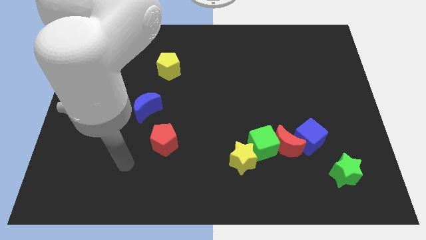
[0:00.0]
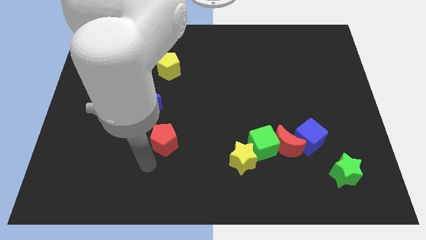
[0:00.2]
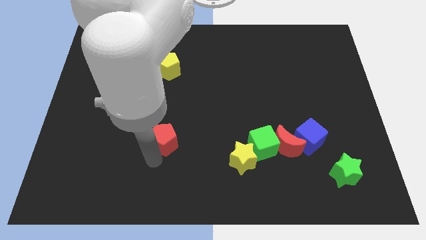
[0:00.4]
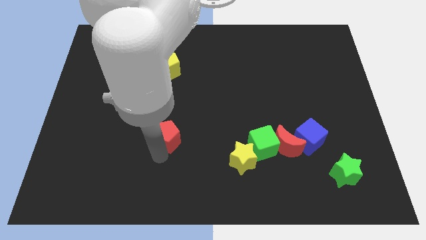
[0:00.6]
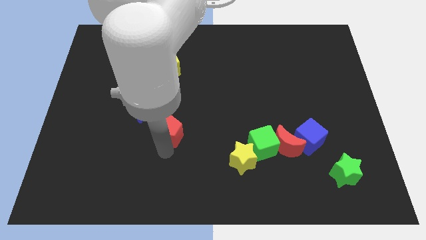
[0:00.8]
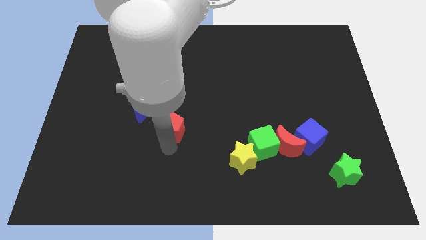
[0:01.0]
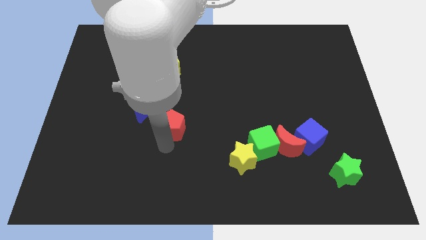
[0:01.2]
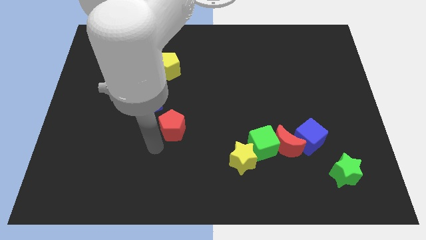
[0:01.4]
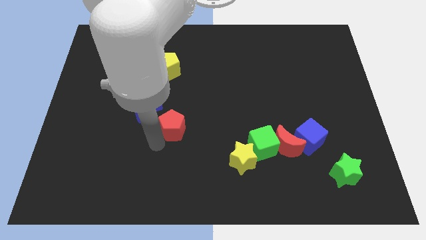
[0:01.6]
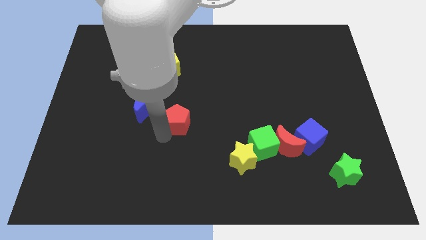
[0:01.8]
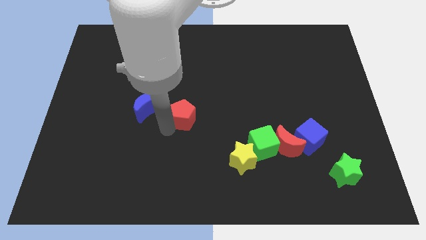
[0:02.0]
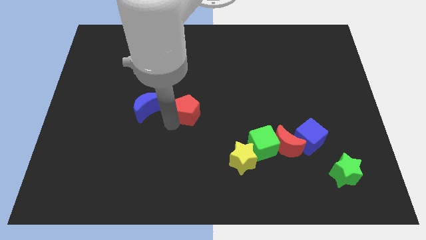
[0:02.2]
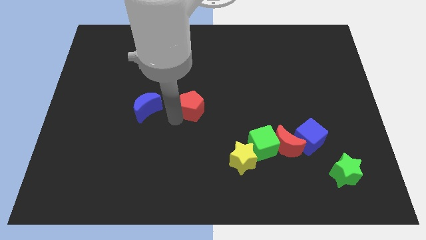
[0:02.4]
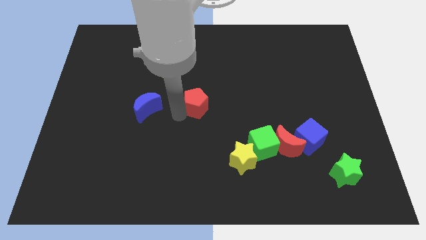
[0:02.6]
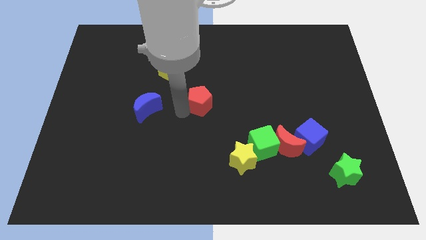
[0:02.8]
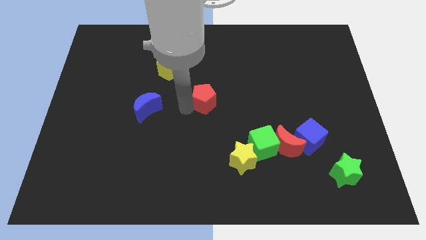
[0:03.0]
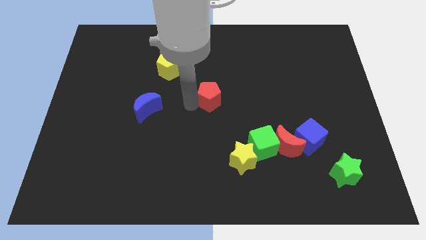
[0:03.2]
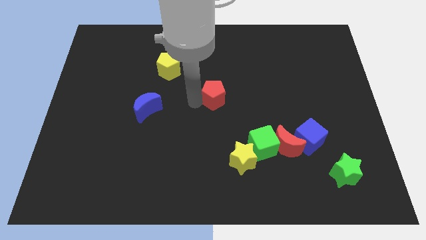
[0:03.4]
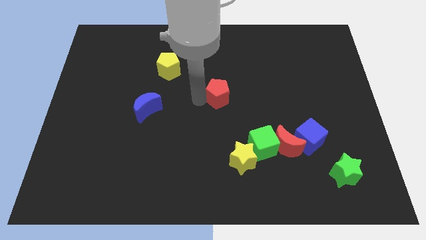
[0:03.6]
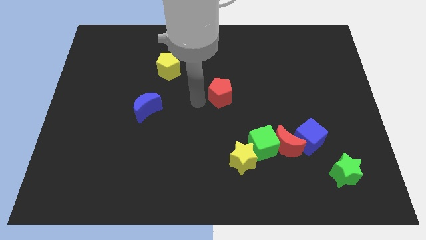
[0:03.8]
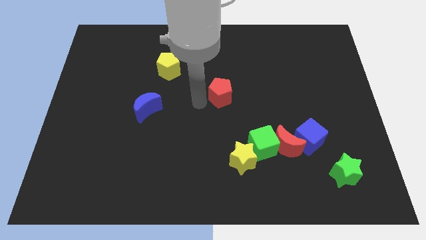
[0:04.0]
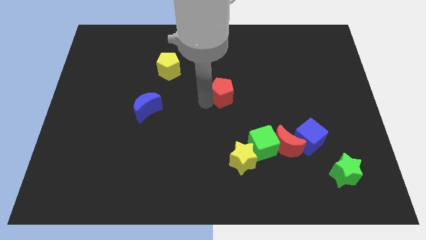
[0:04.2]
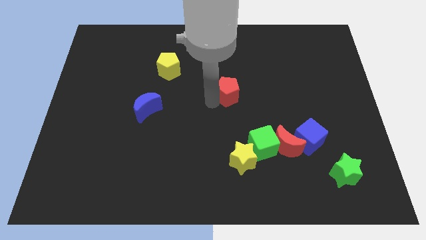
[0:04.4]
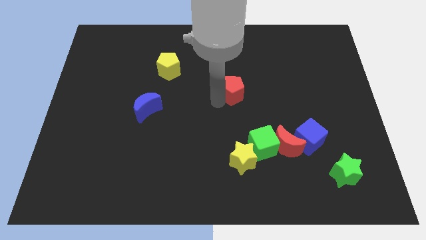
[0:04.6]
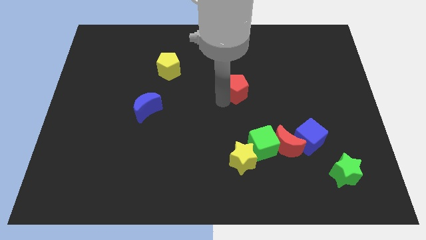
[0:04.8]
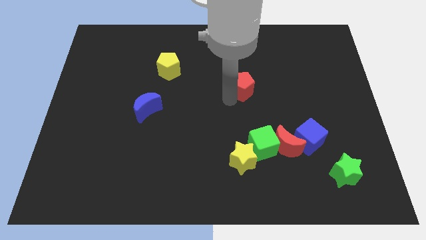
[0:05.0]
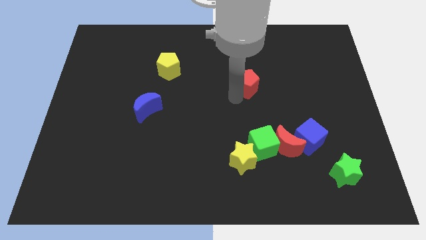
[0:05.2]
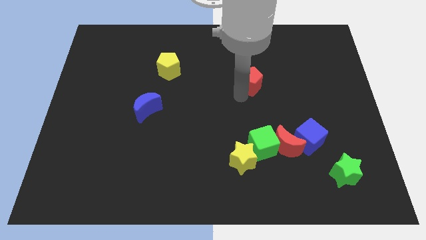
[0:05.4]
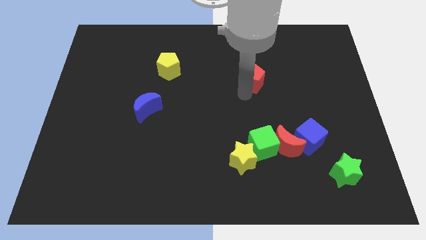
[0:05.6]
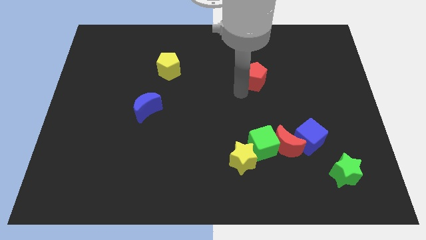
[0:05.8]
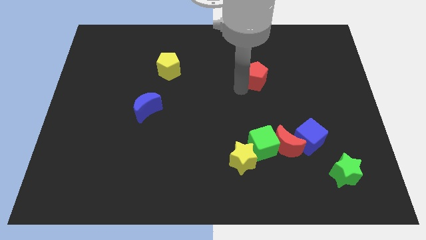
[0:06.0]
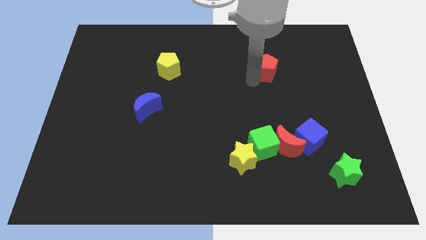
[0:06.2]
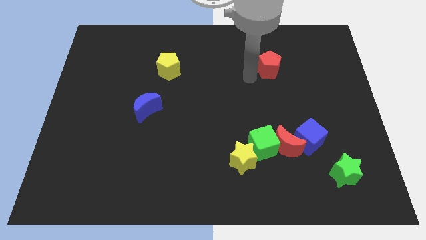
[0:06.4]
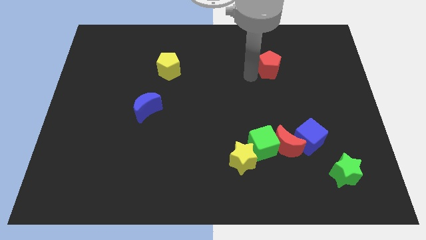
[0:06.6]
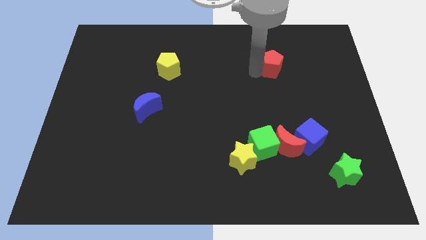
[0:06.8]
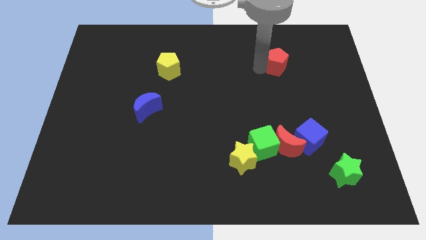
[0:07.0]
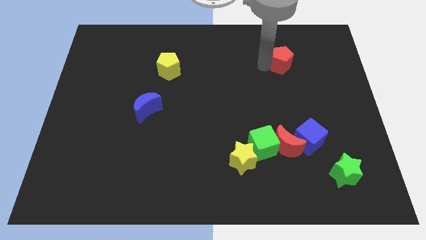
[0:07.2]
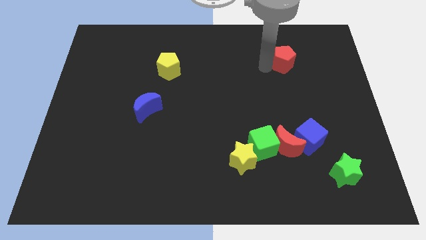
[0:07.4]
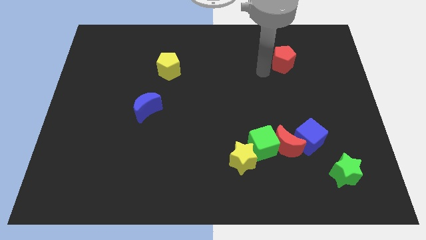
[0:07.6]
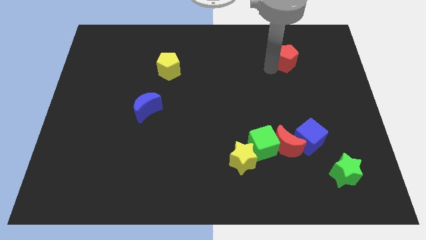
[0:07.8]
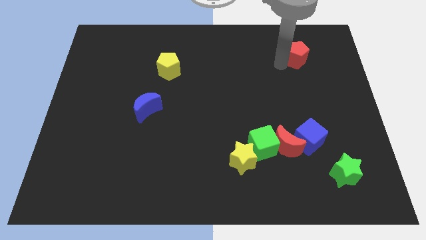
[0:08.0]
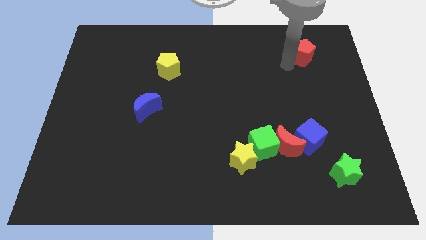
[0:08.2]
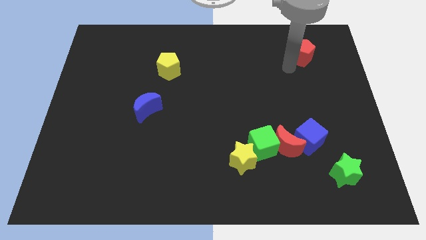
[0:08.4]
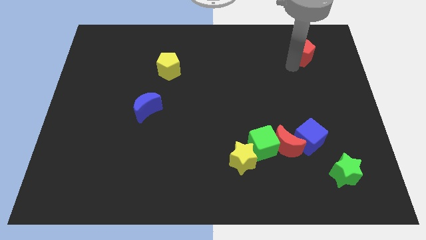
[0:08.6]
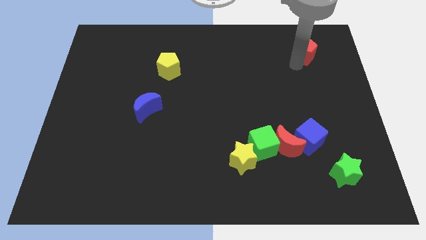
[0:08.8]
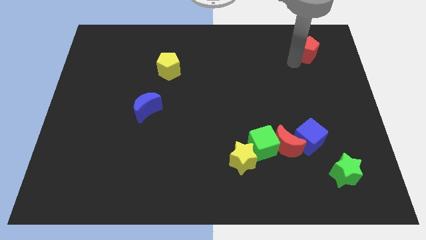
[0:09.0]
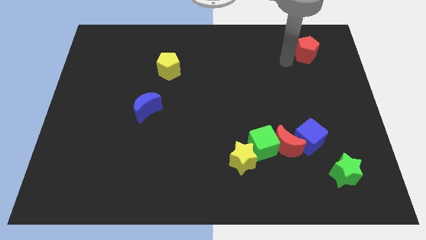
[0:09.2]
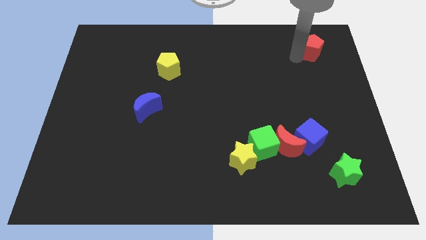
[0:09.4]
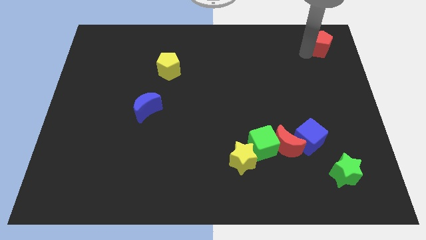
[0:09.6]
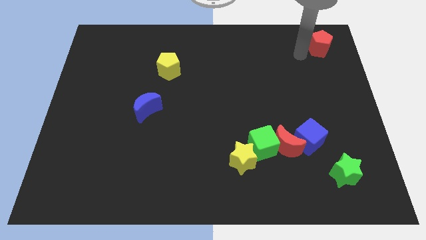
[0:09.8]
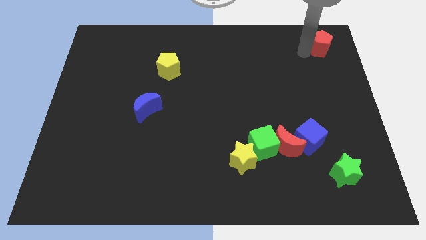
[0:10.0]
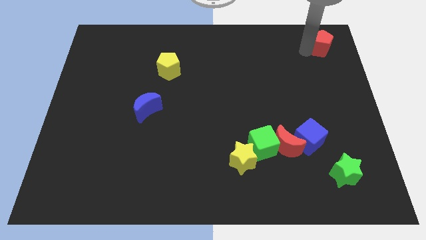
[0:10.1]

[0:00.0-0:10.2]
push the red pentagon to the top right corner
